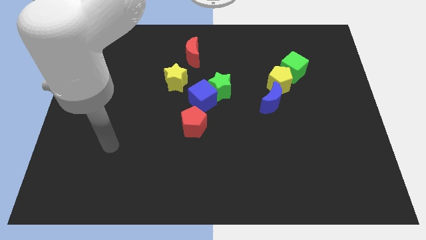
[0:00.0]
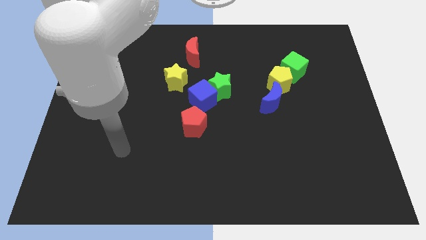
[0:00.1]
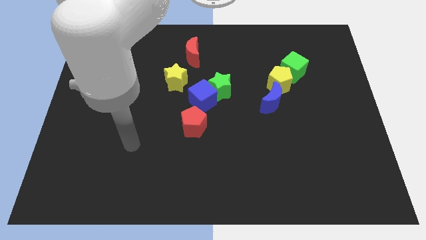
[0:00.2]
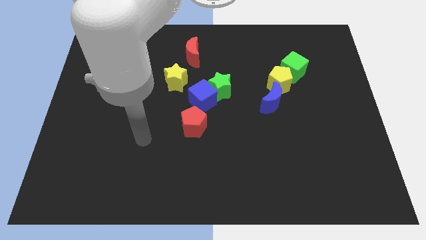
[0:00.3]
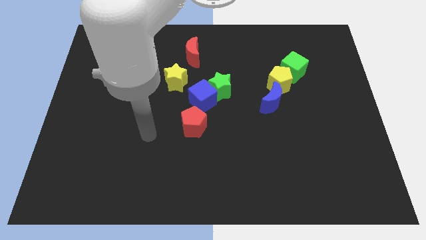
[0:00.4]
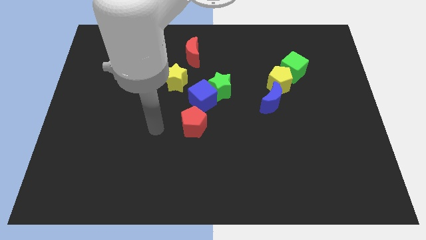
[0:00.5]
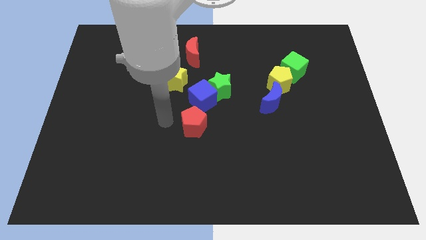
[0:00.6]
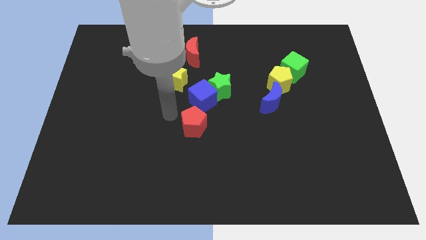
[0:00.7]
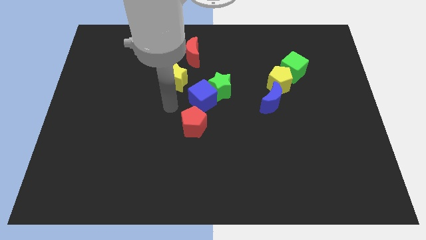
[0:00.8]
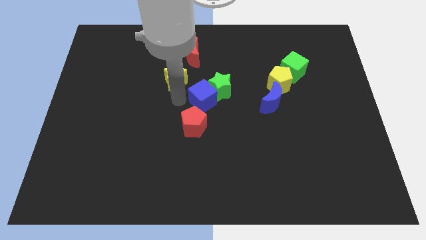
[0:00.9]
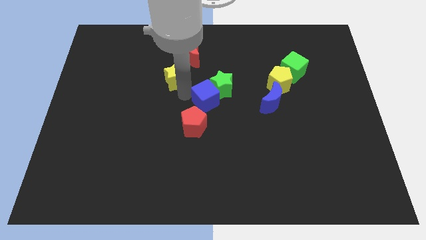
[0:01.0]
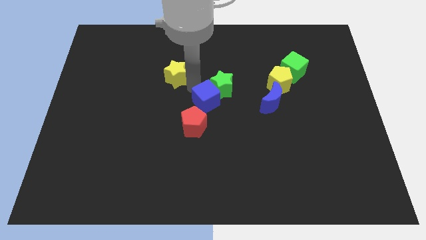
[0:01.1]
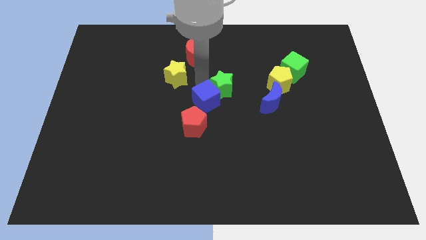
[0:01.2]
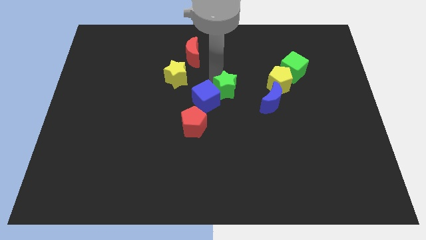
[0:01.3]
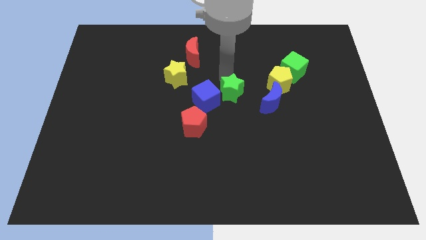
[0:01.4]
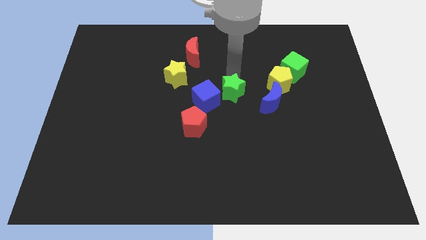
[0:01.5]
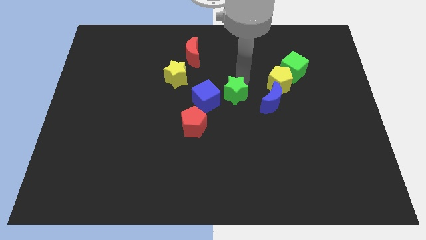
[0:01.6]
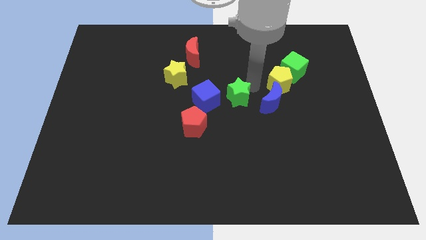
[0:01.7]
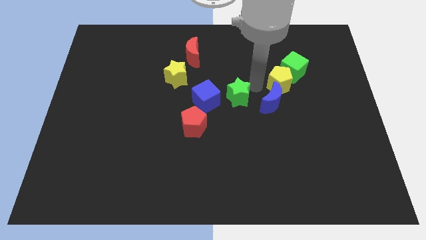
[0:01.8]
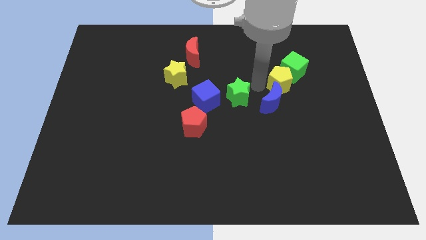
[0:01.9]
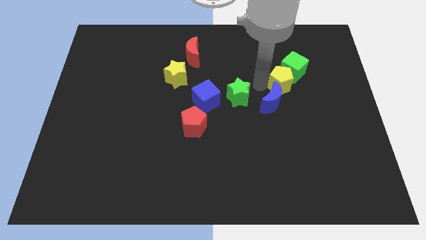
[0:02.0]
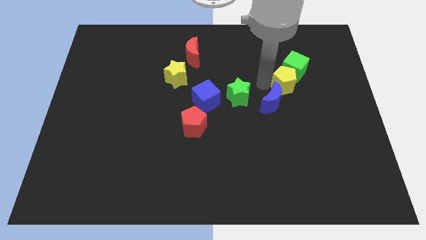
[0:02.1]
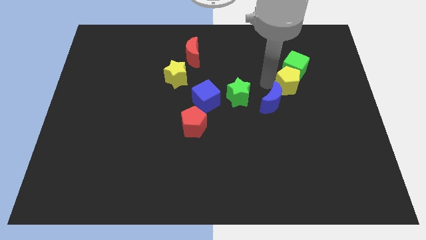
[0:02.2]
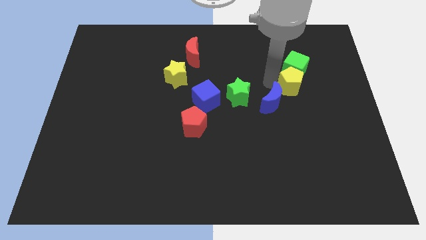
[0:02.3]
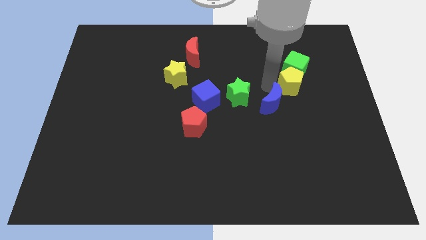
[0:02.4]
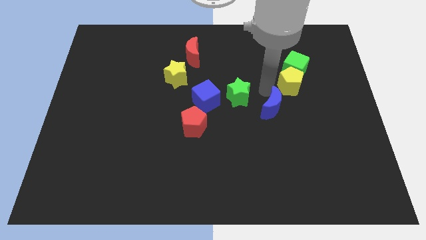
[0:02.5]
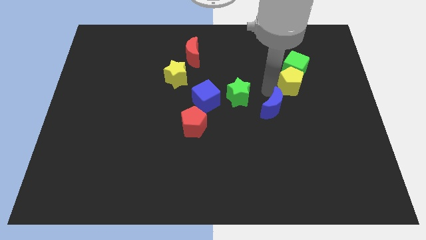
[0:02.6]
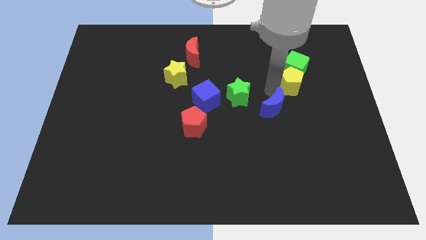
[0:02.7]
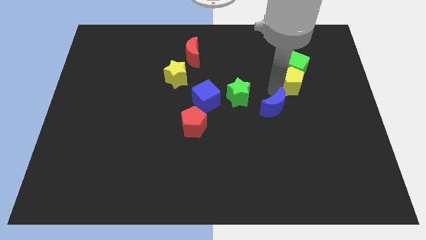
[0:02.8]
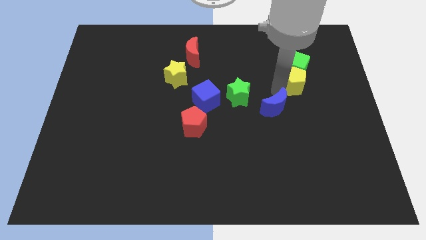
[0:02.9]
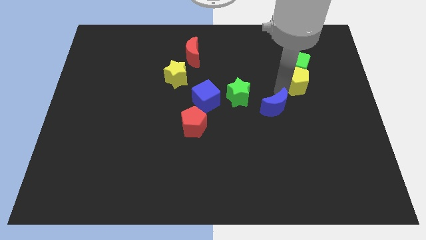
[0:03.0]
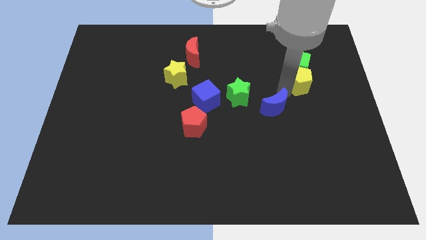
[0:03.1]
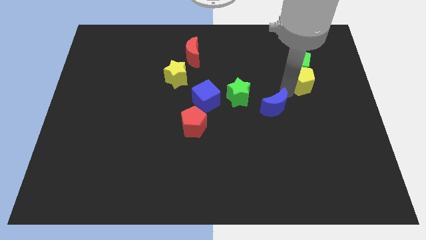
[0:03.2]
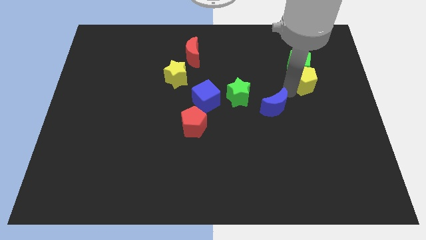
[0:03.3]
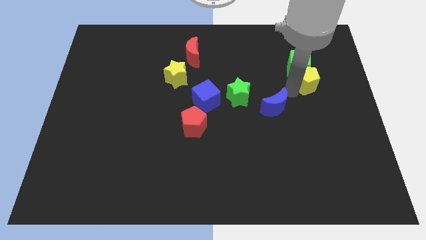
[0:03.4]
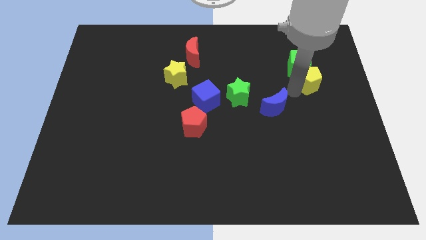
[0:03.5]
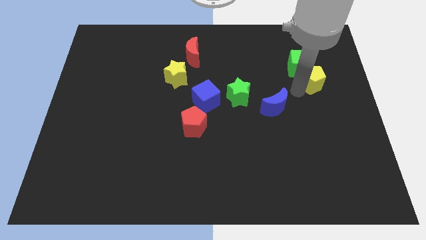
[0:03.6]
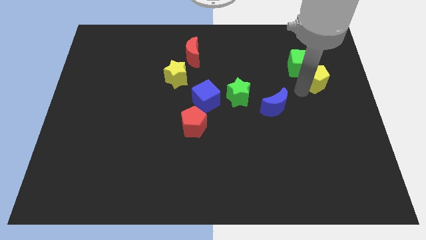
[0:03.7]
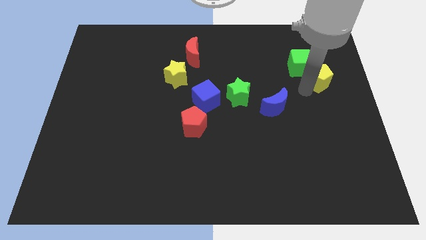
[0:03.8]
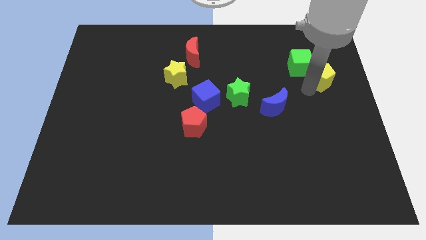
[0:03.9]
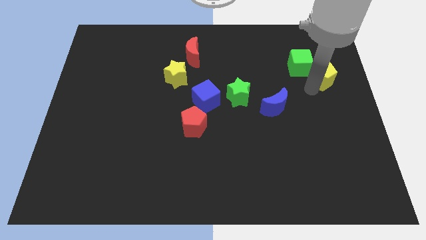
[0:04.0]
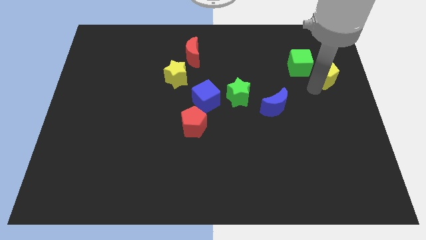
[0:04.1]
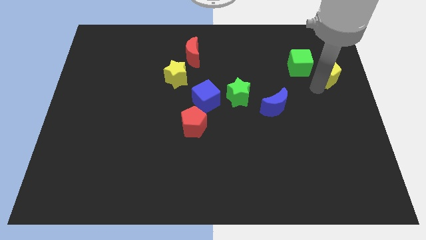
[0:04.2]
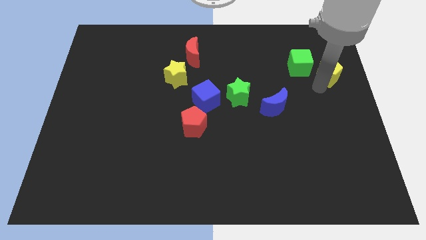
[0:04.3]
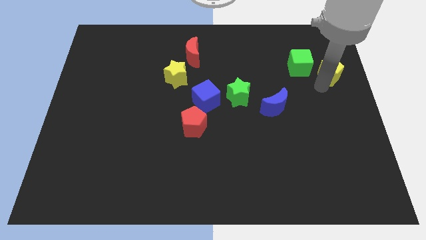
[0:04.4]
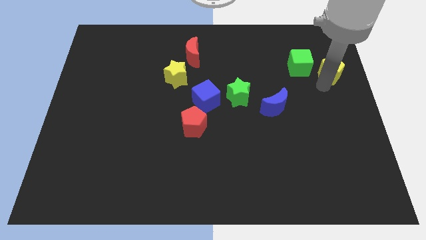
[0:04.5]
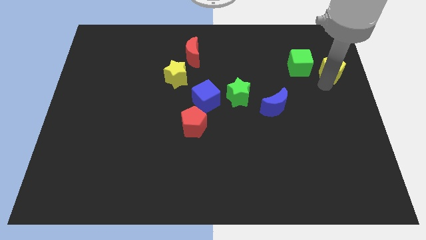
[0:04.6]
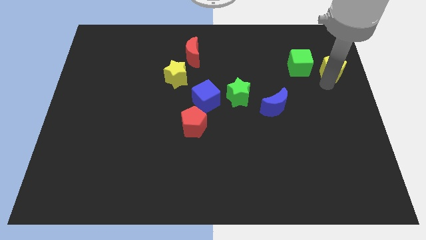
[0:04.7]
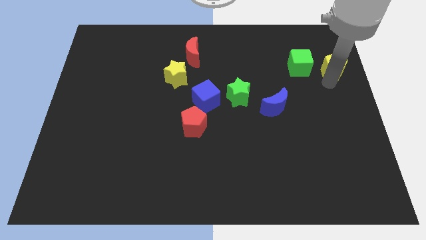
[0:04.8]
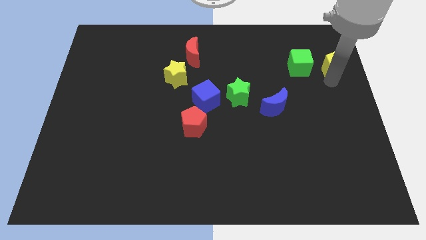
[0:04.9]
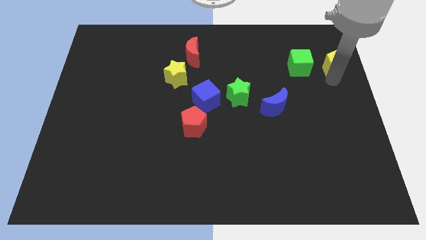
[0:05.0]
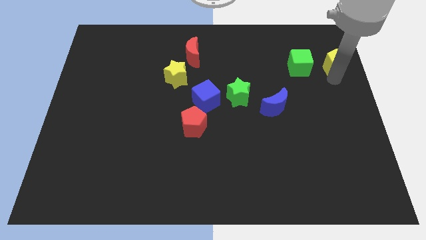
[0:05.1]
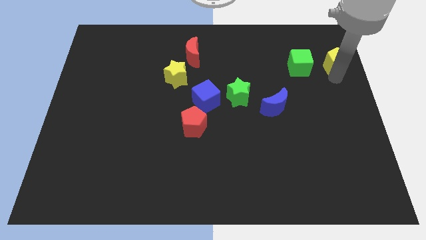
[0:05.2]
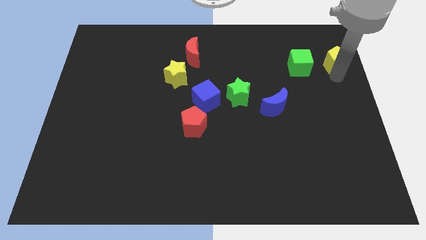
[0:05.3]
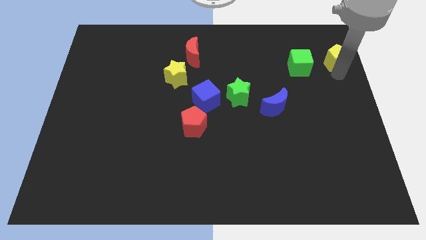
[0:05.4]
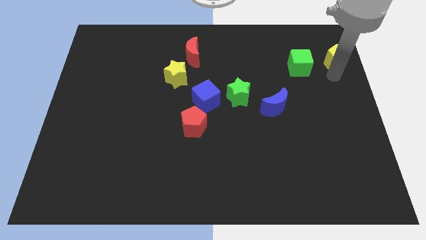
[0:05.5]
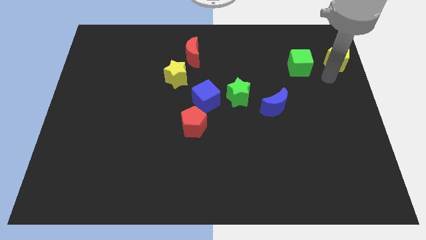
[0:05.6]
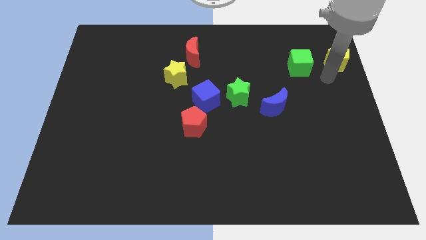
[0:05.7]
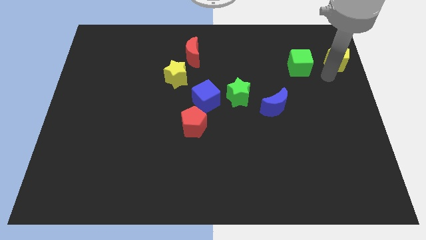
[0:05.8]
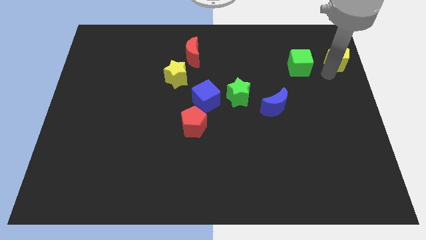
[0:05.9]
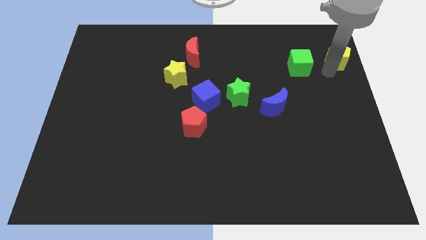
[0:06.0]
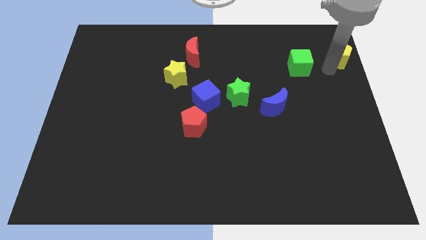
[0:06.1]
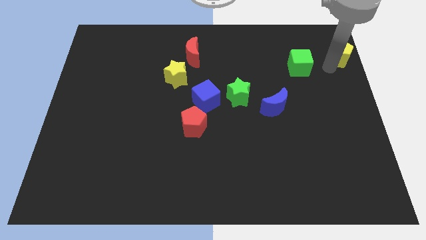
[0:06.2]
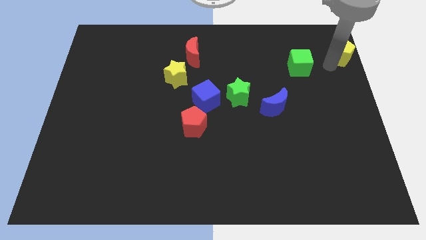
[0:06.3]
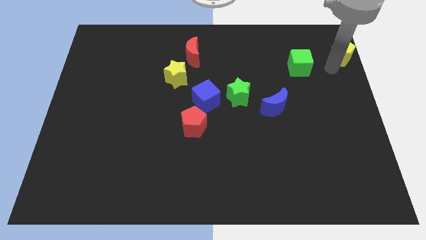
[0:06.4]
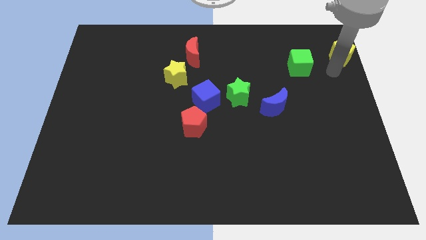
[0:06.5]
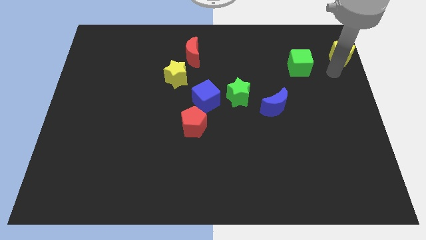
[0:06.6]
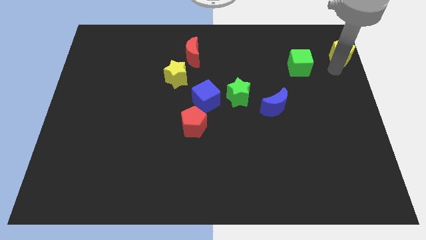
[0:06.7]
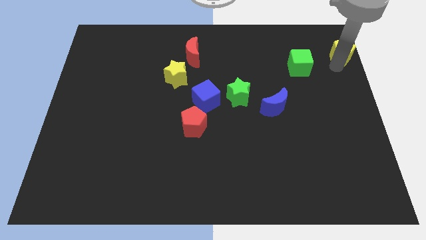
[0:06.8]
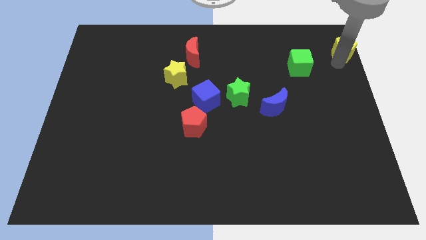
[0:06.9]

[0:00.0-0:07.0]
move the yellow pentagon to the top right of the board
